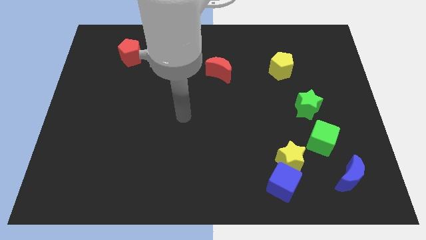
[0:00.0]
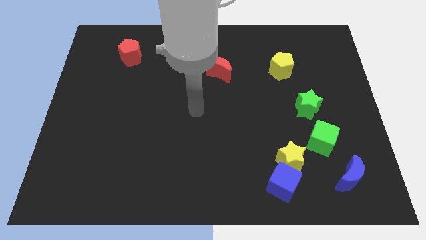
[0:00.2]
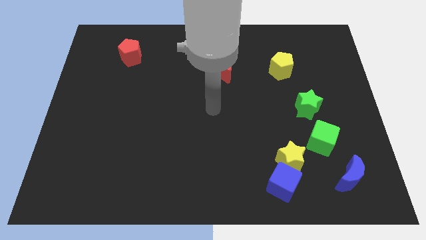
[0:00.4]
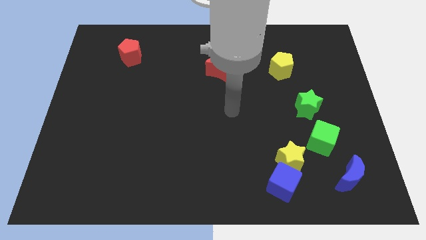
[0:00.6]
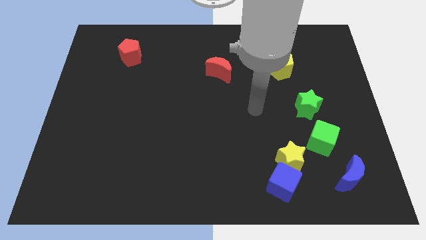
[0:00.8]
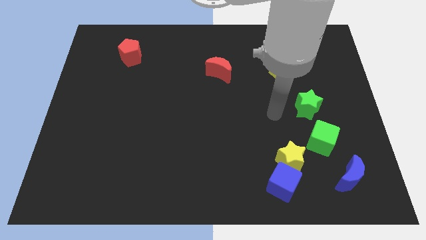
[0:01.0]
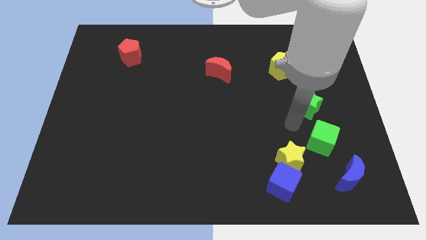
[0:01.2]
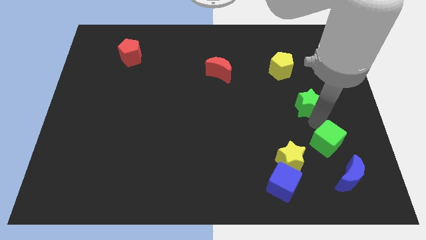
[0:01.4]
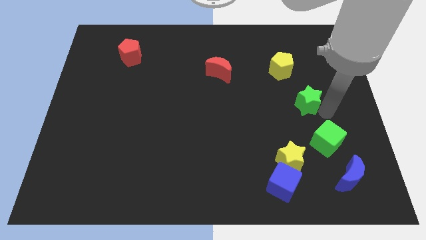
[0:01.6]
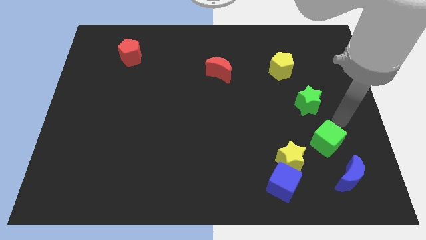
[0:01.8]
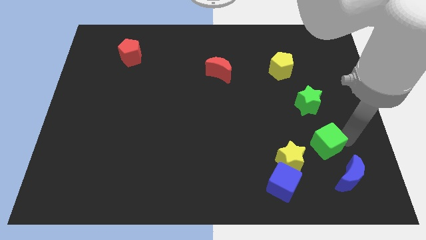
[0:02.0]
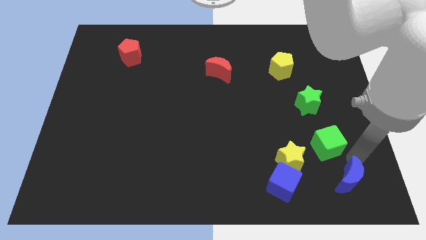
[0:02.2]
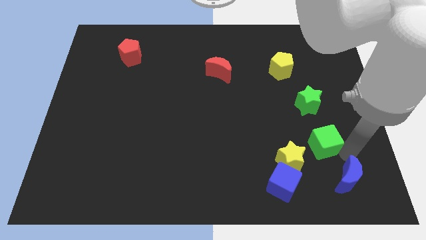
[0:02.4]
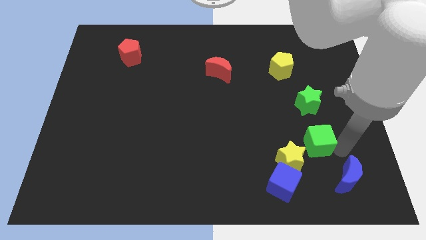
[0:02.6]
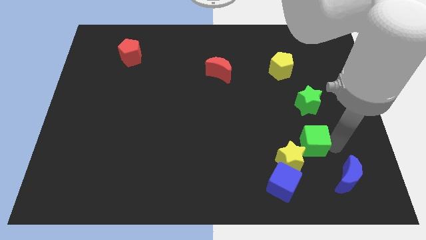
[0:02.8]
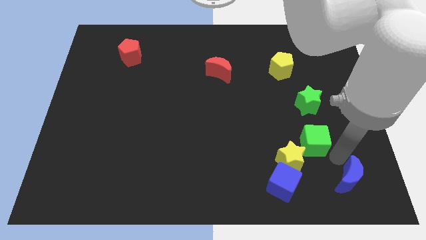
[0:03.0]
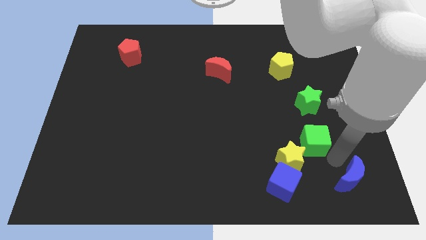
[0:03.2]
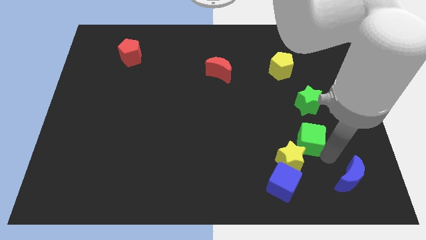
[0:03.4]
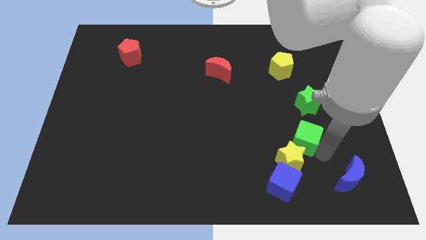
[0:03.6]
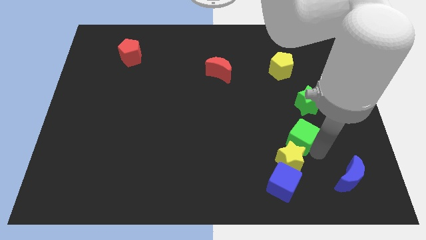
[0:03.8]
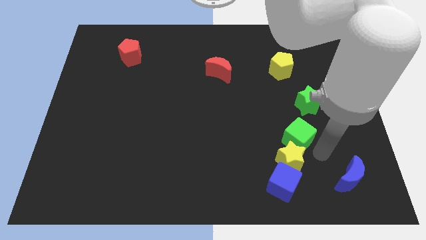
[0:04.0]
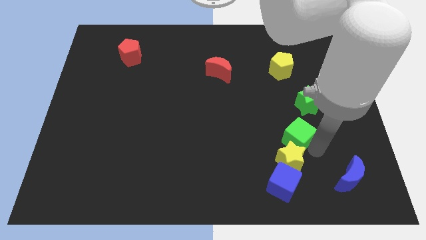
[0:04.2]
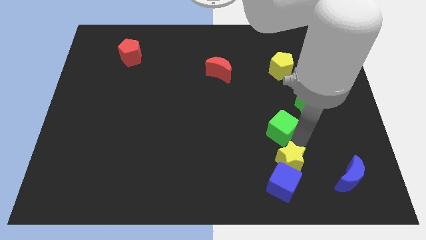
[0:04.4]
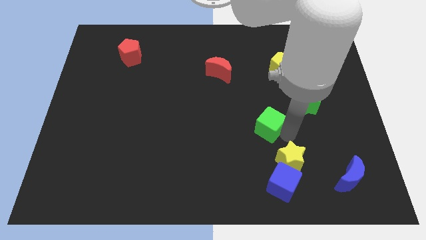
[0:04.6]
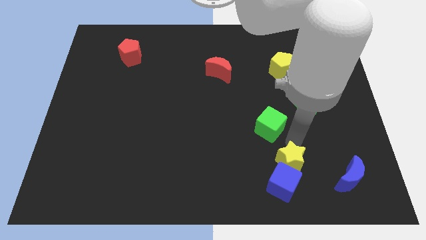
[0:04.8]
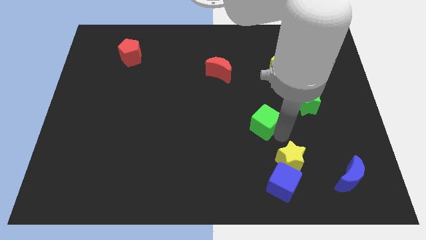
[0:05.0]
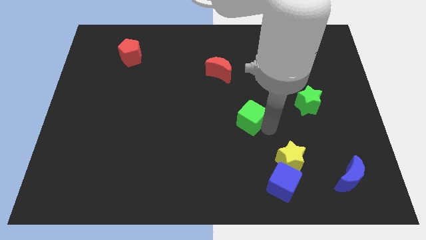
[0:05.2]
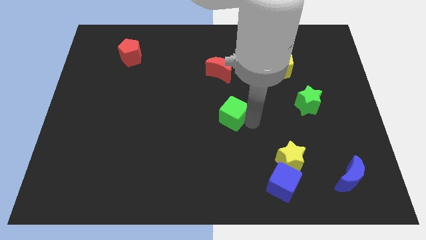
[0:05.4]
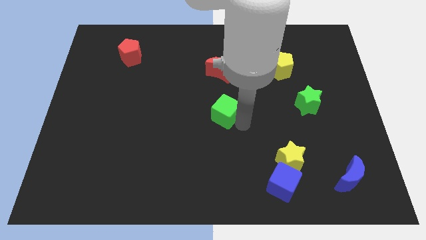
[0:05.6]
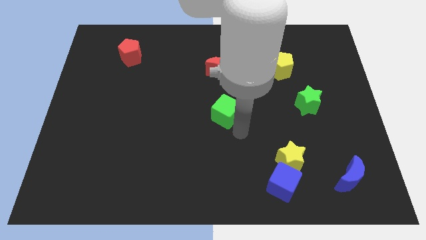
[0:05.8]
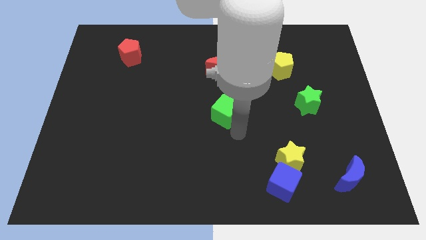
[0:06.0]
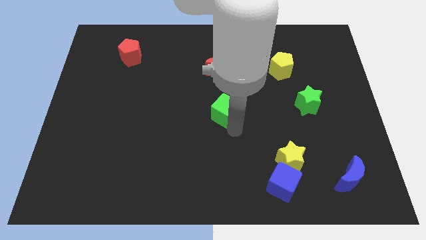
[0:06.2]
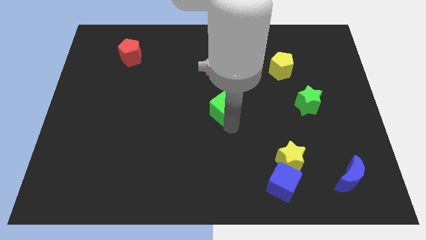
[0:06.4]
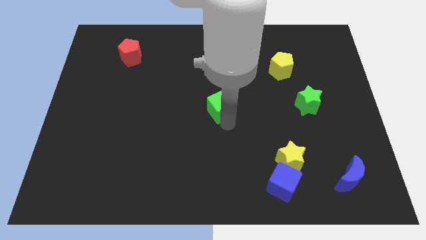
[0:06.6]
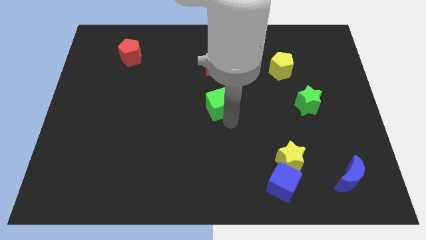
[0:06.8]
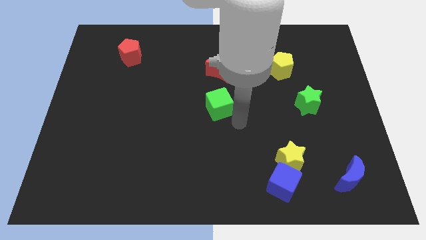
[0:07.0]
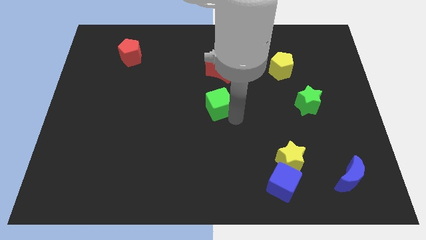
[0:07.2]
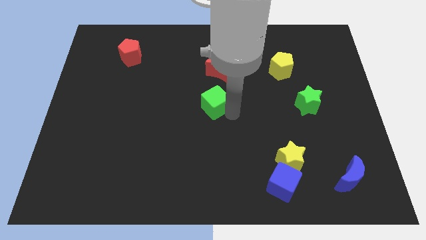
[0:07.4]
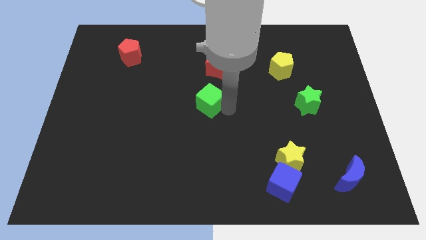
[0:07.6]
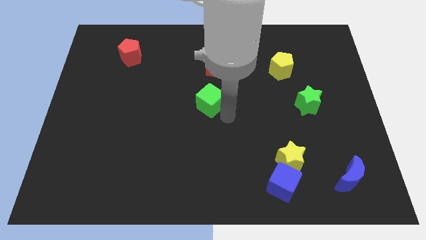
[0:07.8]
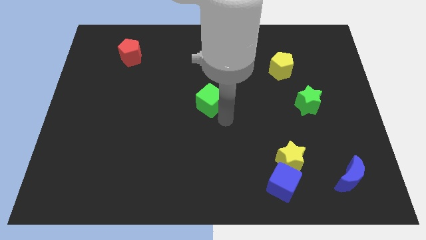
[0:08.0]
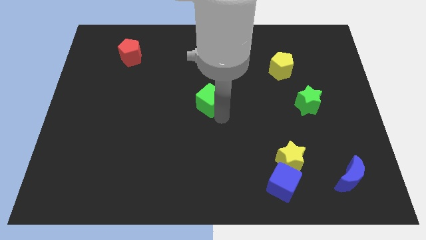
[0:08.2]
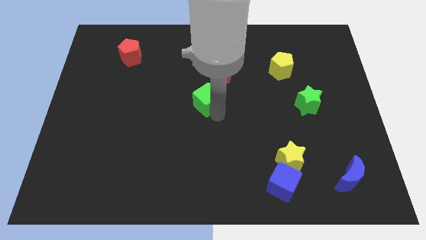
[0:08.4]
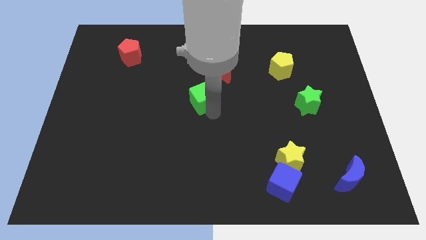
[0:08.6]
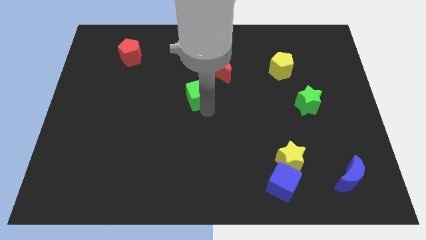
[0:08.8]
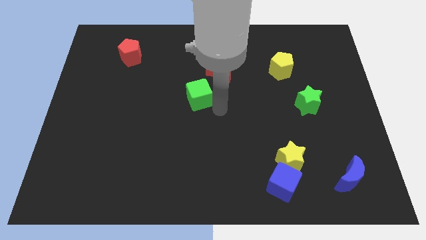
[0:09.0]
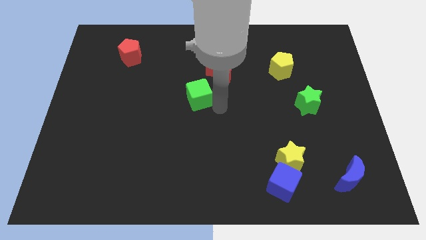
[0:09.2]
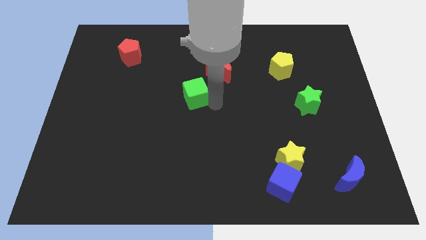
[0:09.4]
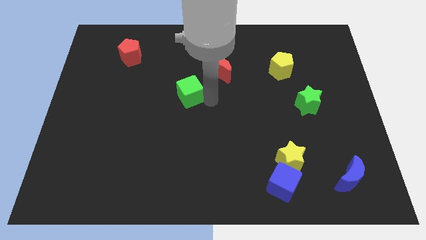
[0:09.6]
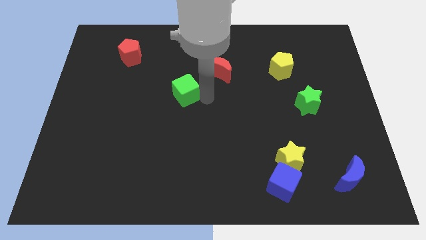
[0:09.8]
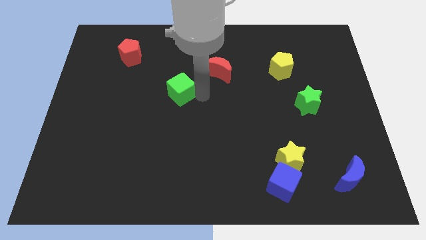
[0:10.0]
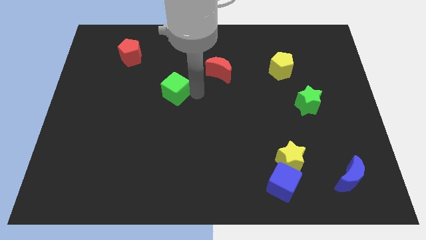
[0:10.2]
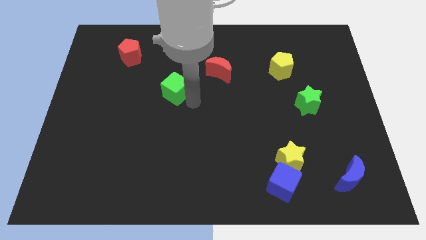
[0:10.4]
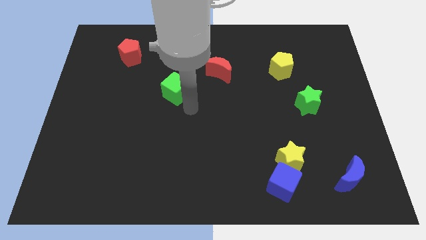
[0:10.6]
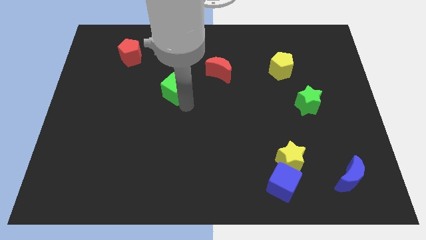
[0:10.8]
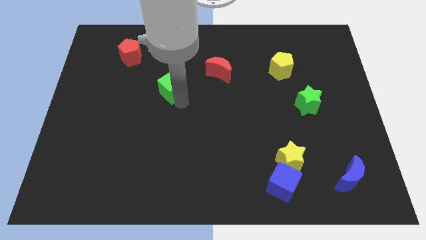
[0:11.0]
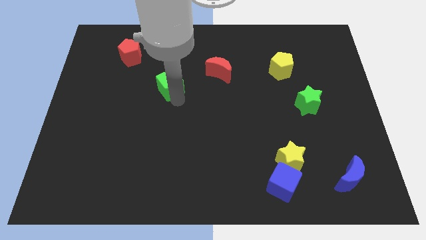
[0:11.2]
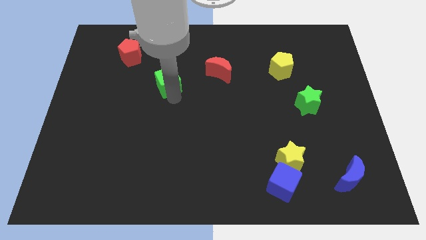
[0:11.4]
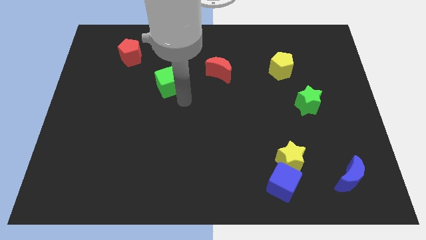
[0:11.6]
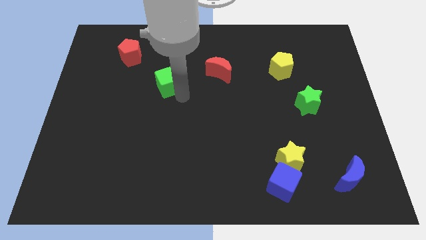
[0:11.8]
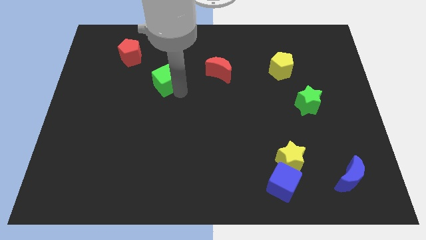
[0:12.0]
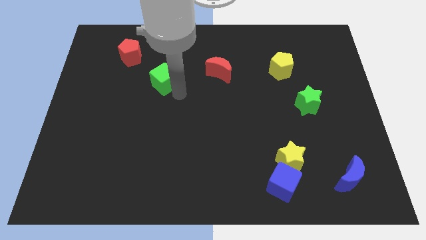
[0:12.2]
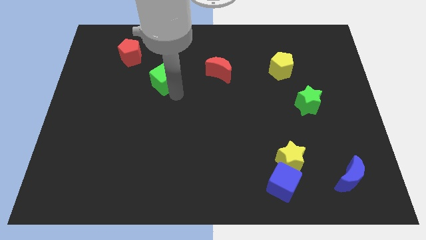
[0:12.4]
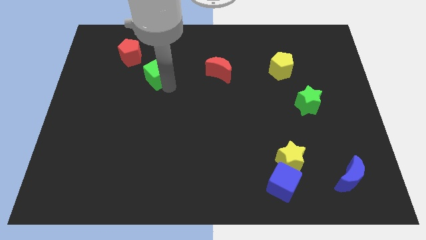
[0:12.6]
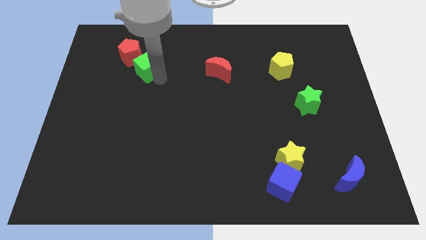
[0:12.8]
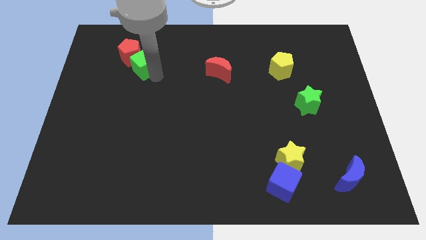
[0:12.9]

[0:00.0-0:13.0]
put the green cube towards the red pentagon
